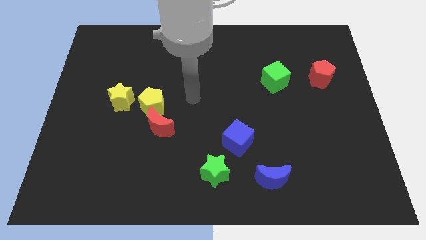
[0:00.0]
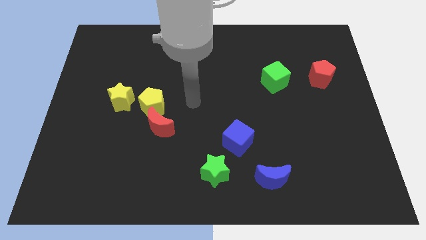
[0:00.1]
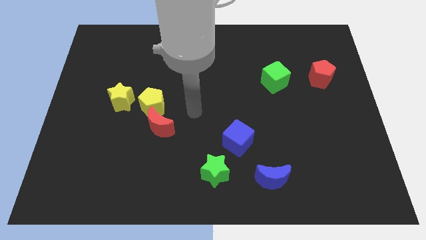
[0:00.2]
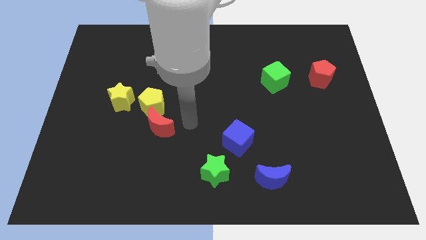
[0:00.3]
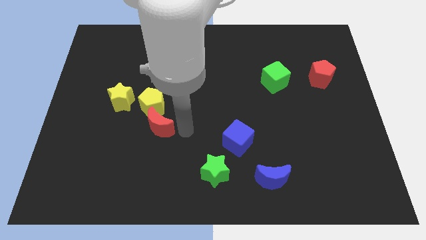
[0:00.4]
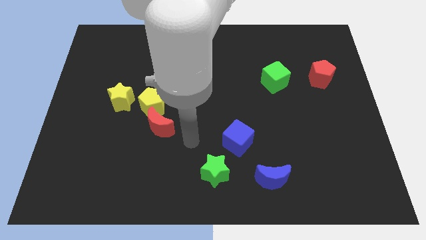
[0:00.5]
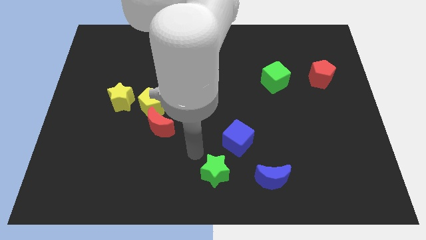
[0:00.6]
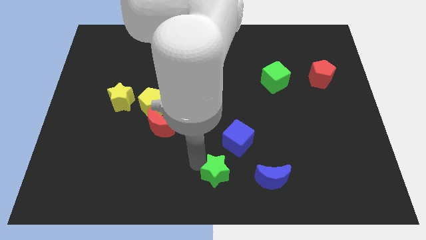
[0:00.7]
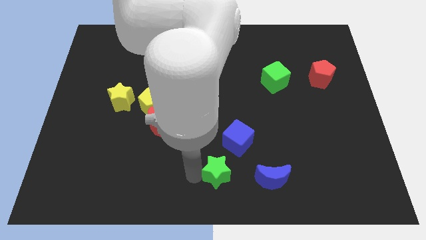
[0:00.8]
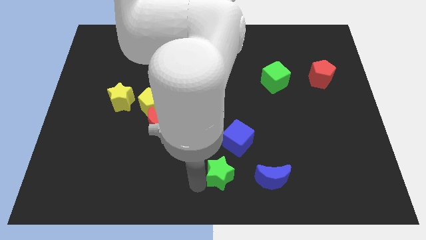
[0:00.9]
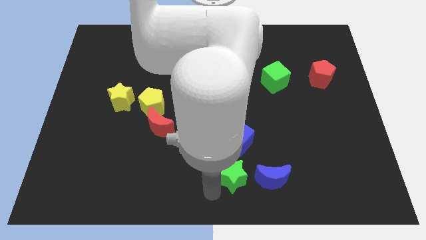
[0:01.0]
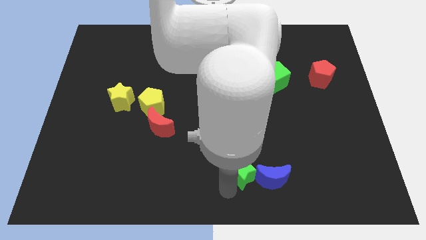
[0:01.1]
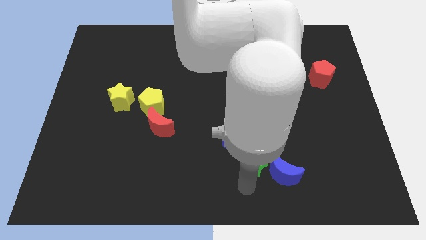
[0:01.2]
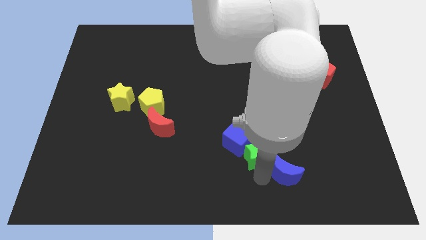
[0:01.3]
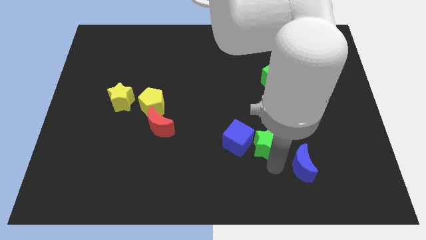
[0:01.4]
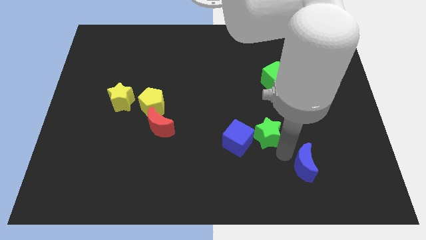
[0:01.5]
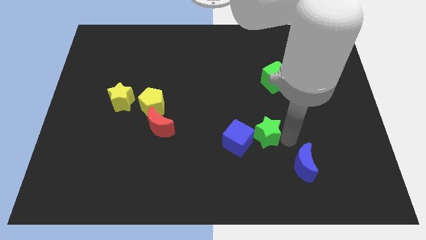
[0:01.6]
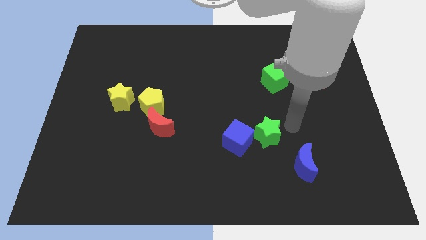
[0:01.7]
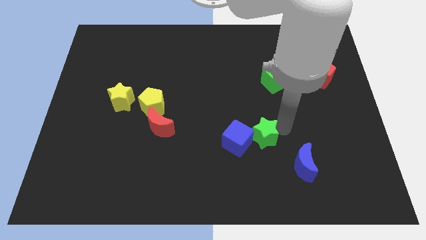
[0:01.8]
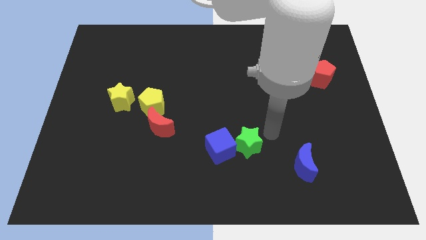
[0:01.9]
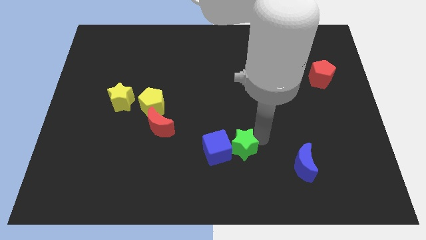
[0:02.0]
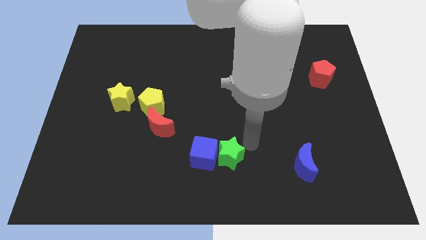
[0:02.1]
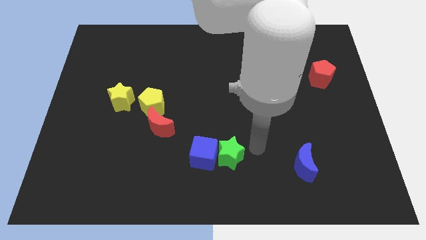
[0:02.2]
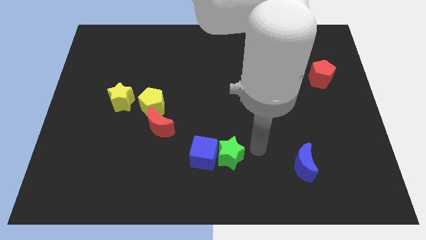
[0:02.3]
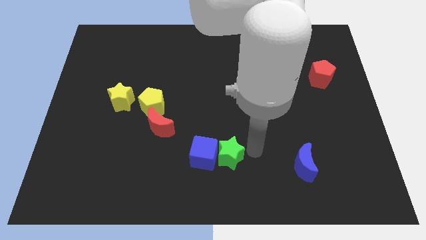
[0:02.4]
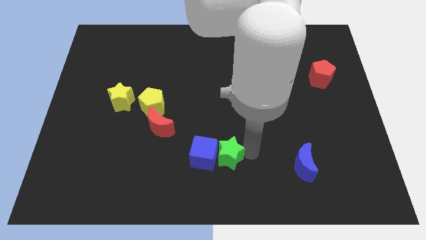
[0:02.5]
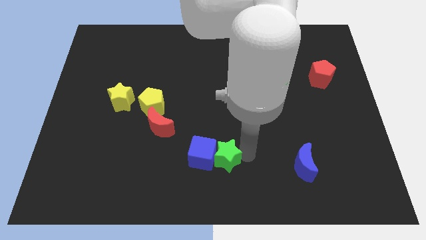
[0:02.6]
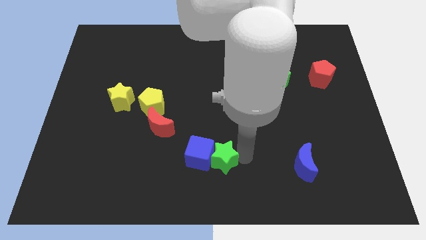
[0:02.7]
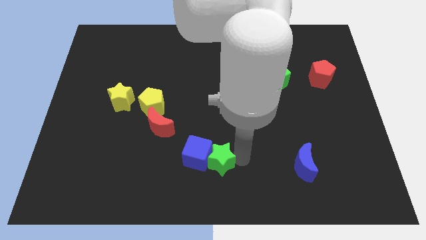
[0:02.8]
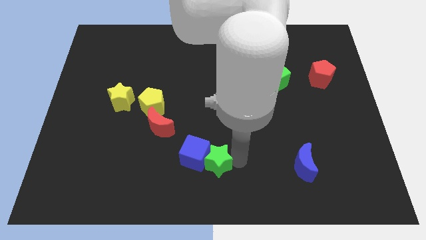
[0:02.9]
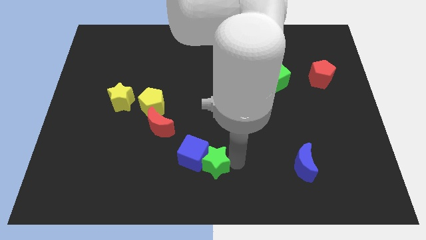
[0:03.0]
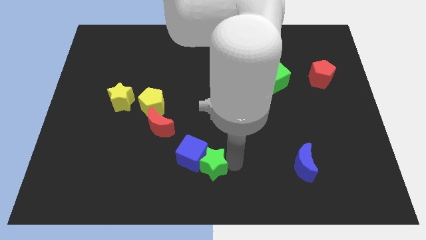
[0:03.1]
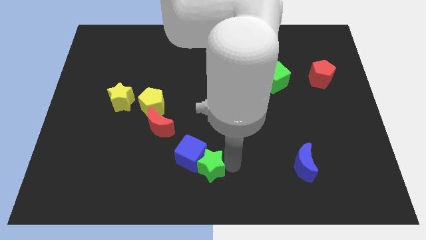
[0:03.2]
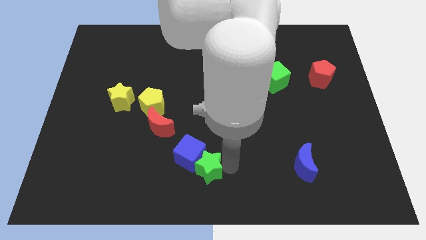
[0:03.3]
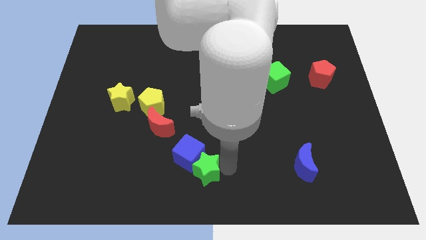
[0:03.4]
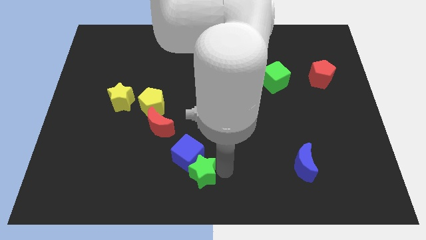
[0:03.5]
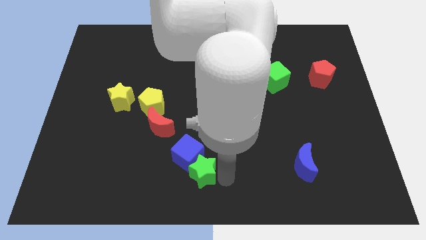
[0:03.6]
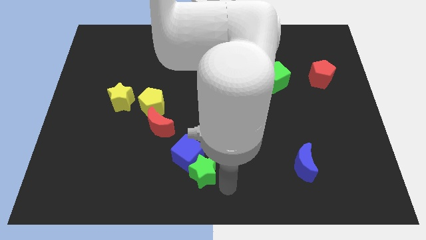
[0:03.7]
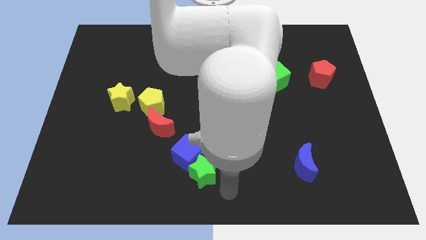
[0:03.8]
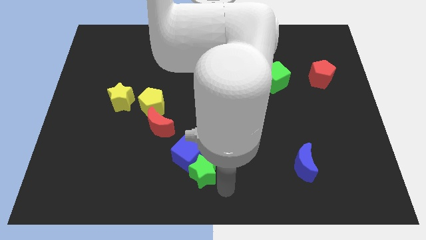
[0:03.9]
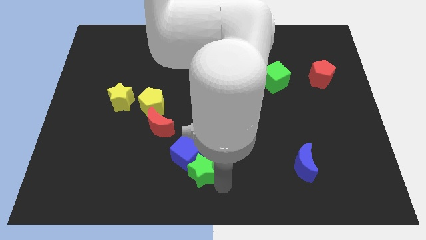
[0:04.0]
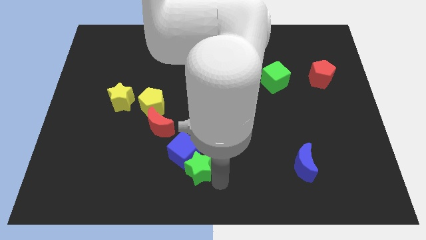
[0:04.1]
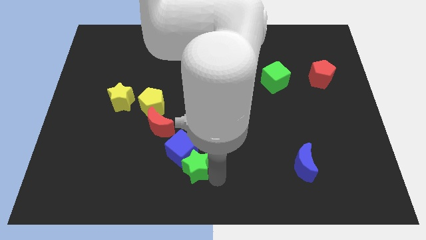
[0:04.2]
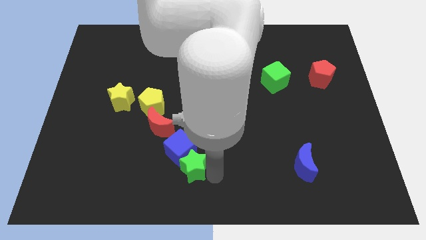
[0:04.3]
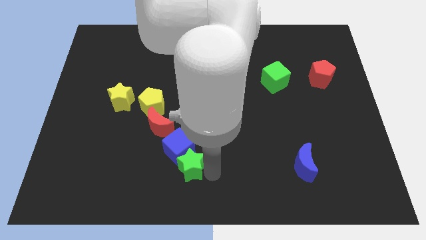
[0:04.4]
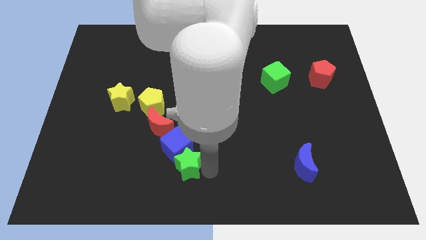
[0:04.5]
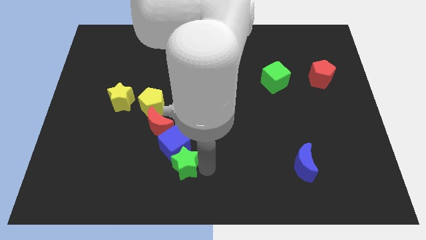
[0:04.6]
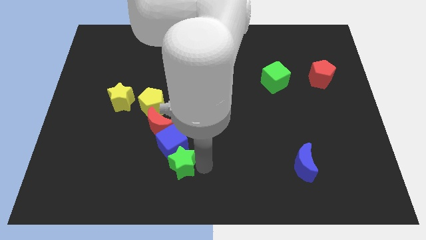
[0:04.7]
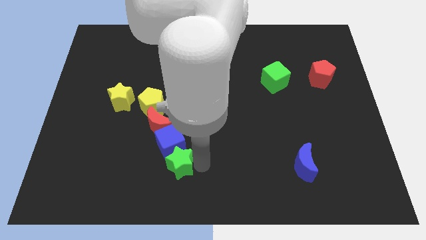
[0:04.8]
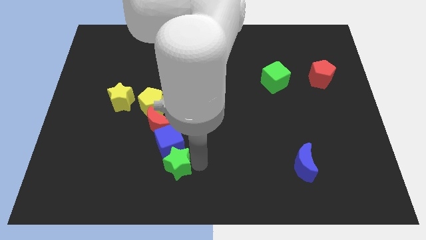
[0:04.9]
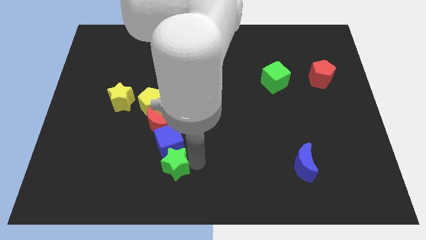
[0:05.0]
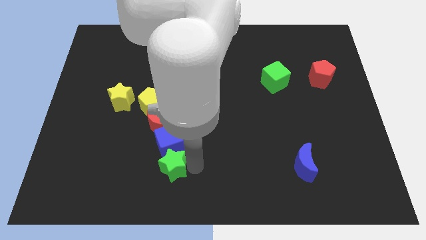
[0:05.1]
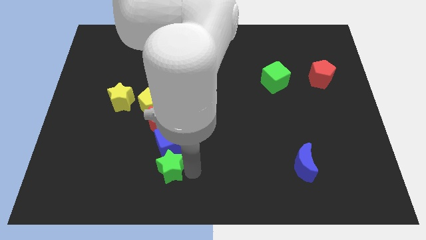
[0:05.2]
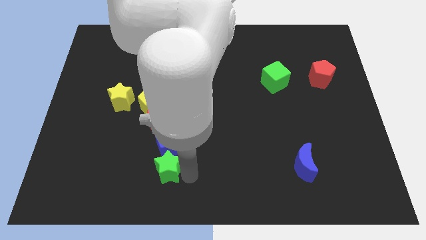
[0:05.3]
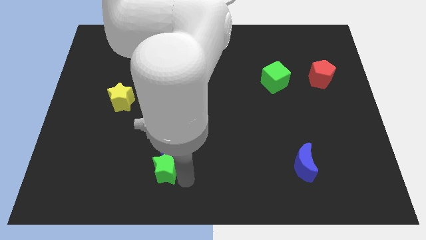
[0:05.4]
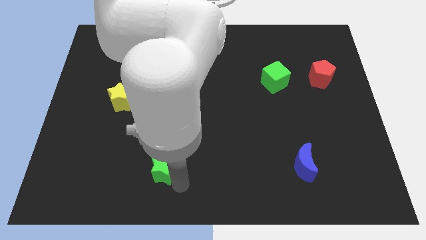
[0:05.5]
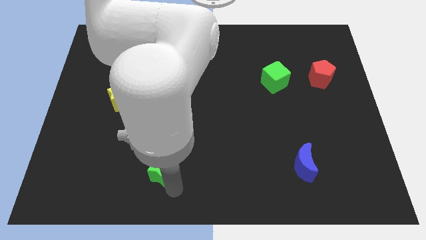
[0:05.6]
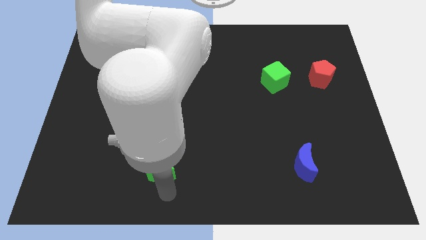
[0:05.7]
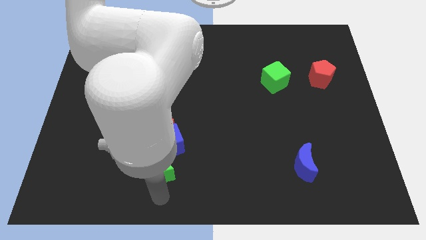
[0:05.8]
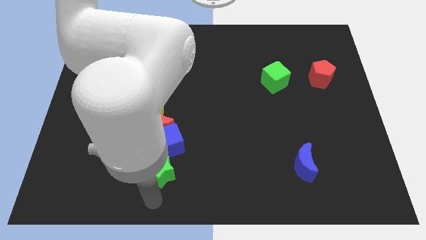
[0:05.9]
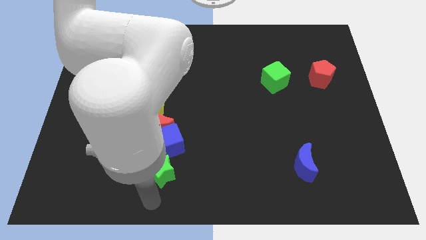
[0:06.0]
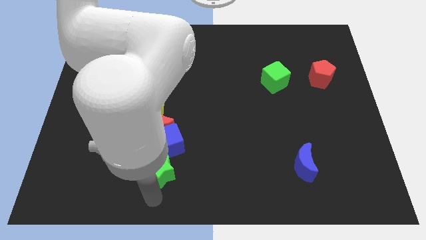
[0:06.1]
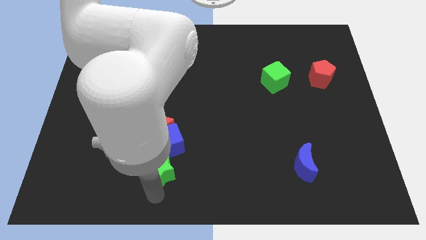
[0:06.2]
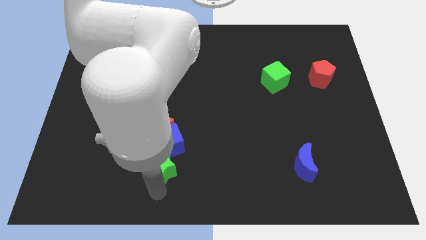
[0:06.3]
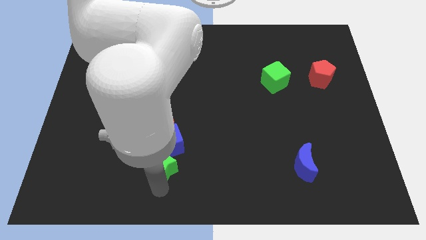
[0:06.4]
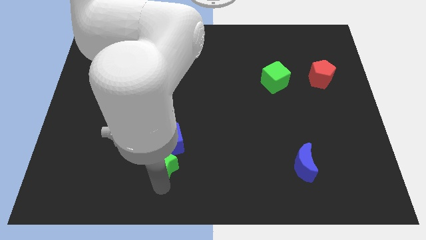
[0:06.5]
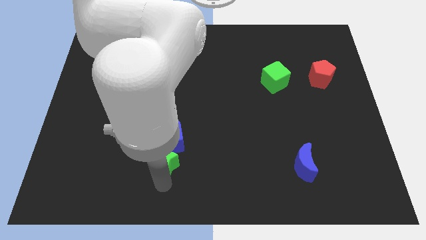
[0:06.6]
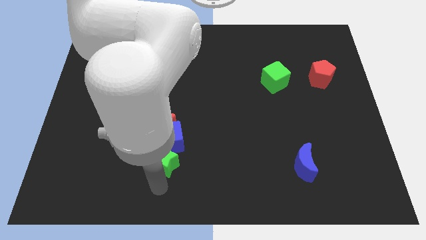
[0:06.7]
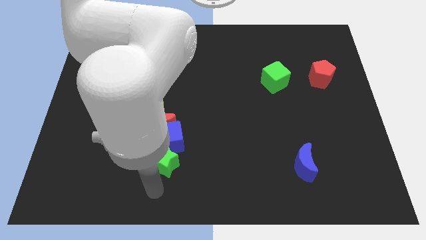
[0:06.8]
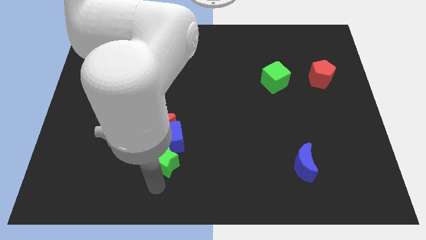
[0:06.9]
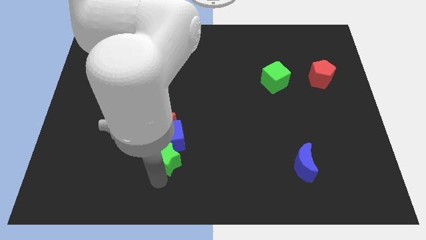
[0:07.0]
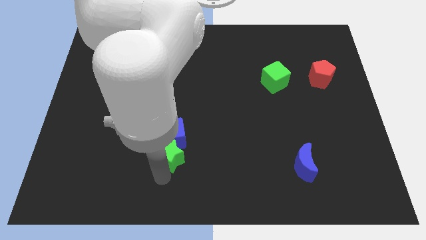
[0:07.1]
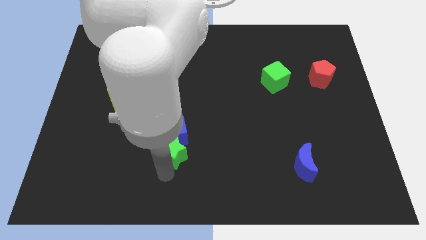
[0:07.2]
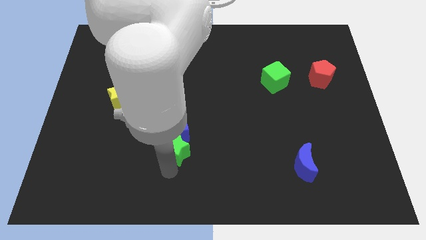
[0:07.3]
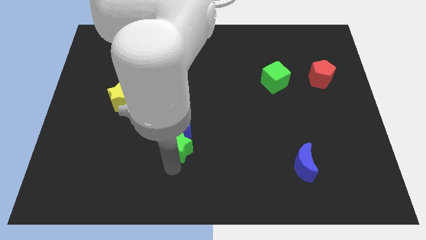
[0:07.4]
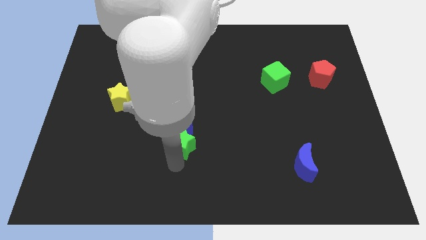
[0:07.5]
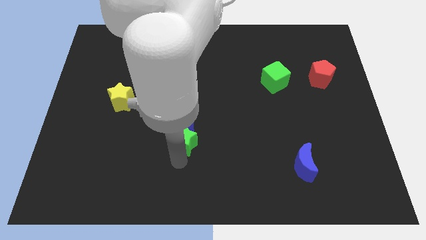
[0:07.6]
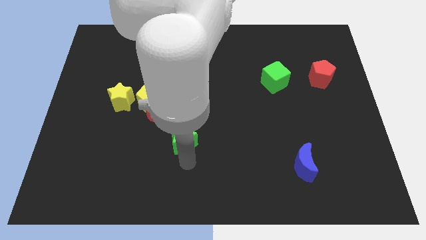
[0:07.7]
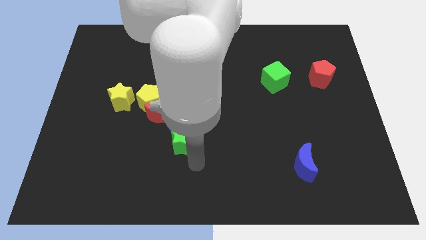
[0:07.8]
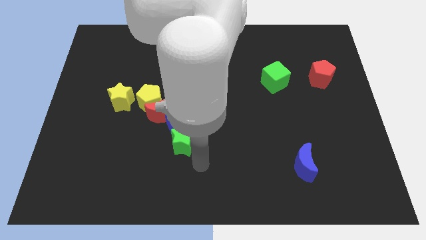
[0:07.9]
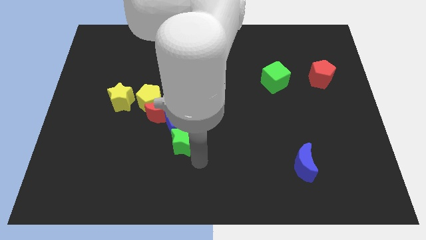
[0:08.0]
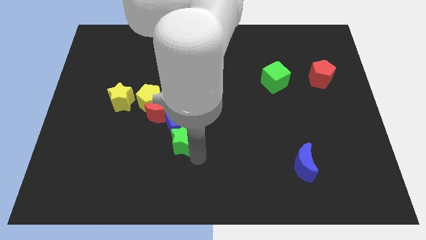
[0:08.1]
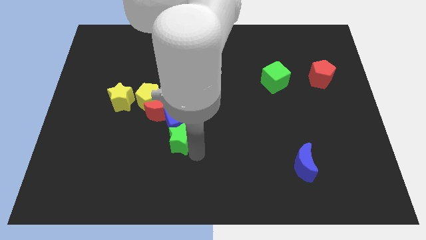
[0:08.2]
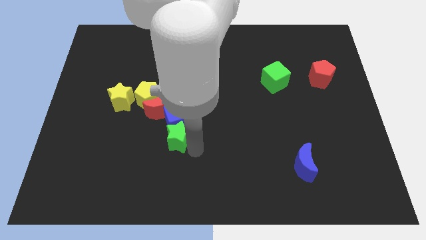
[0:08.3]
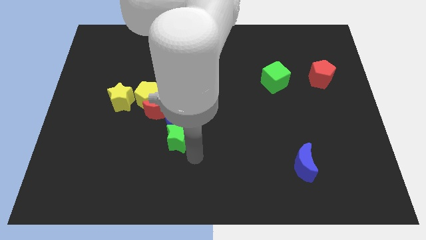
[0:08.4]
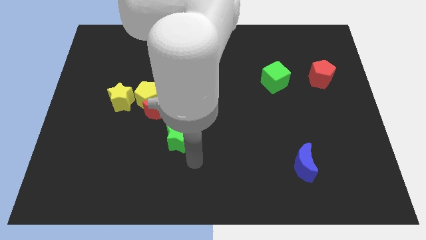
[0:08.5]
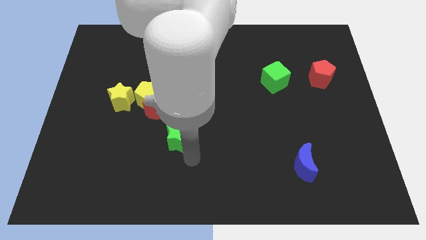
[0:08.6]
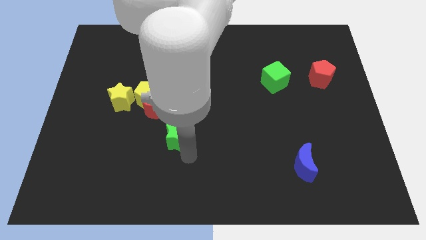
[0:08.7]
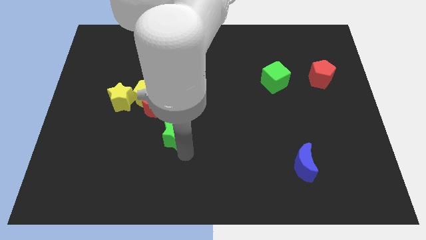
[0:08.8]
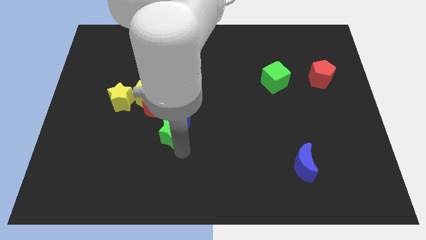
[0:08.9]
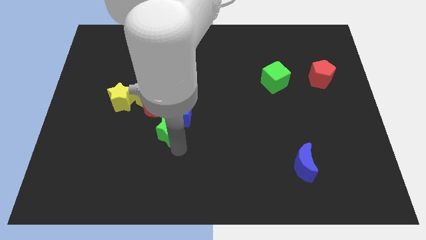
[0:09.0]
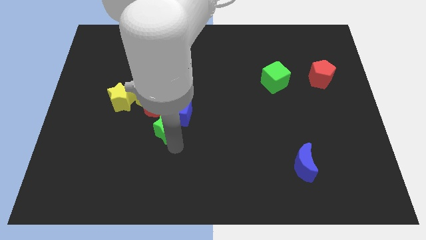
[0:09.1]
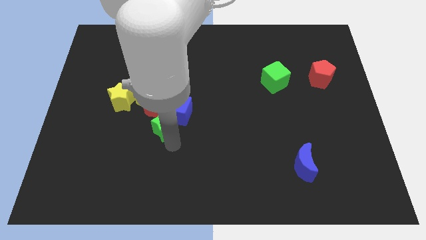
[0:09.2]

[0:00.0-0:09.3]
push the green star close to the red moon
